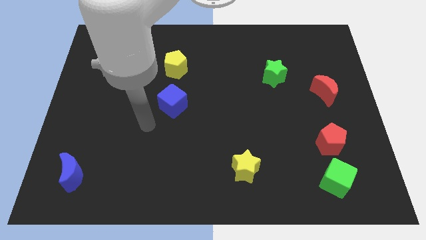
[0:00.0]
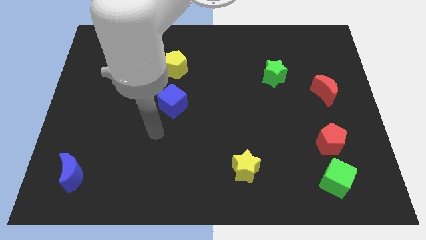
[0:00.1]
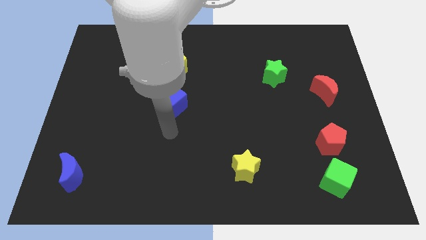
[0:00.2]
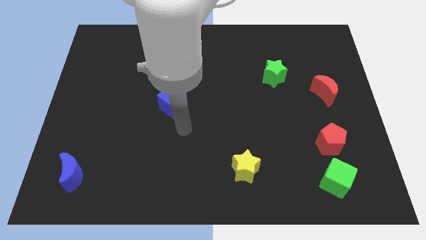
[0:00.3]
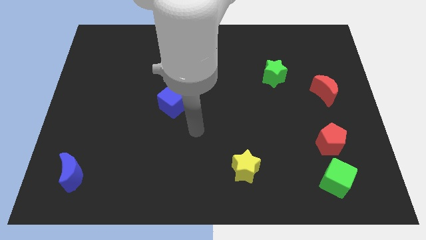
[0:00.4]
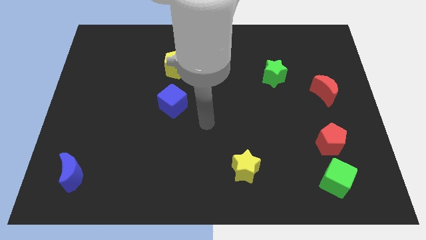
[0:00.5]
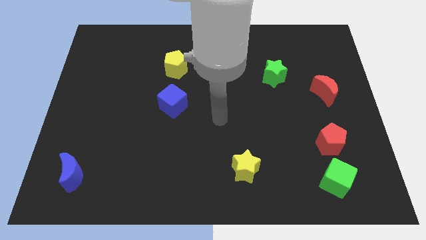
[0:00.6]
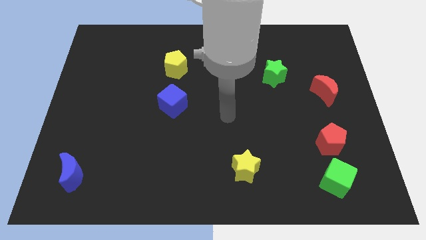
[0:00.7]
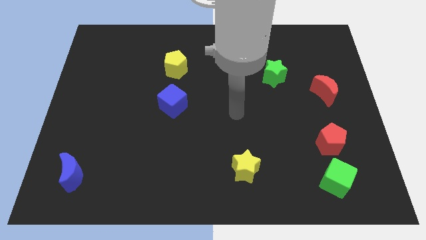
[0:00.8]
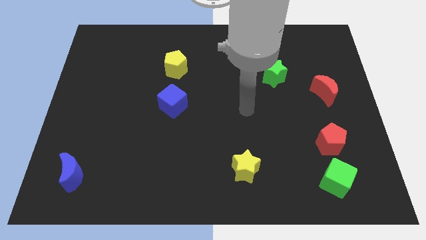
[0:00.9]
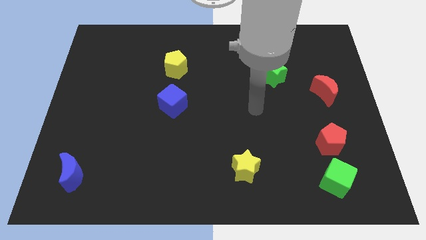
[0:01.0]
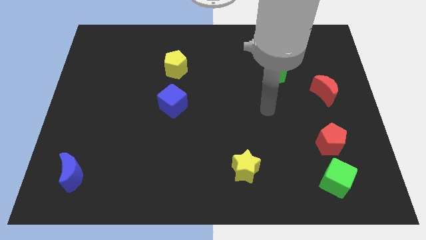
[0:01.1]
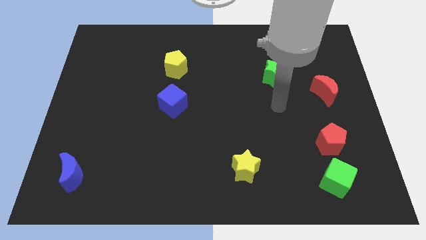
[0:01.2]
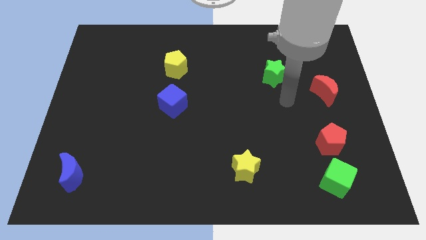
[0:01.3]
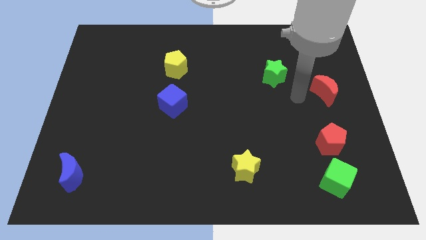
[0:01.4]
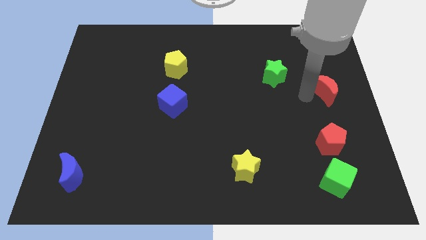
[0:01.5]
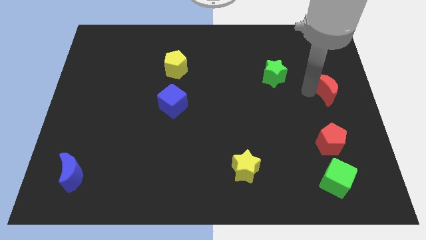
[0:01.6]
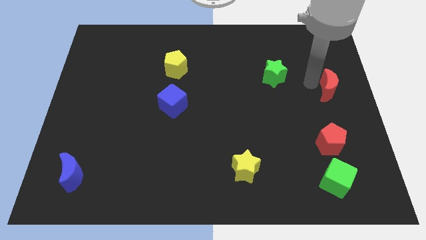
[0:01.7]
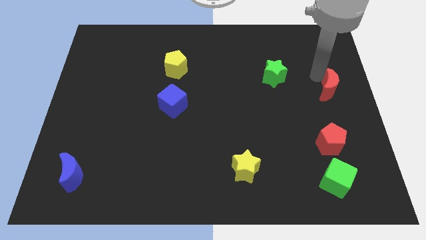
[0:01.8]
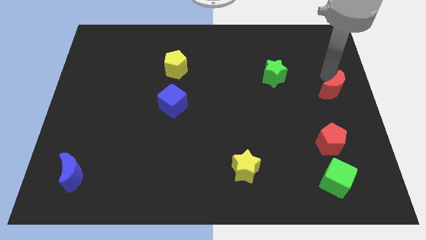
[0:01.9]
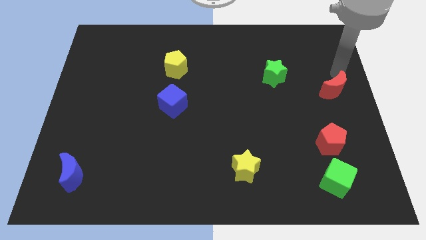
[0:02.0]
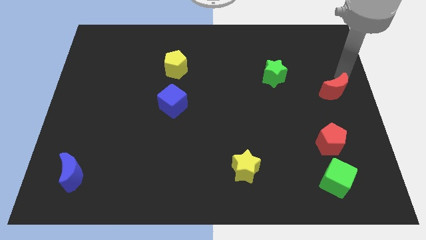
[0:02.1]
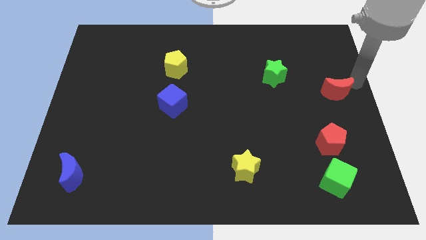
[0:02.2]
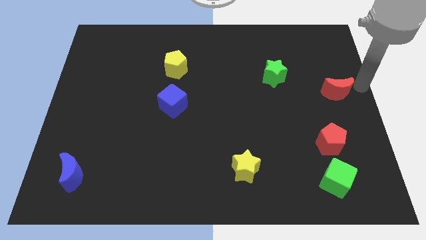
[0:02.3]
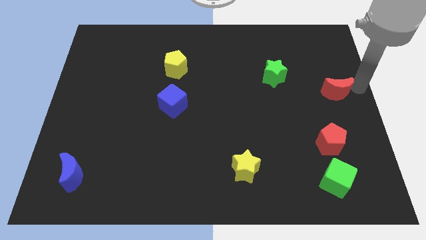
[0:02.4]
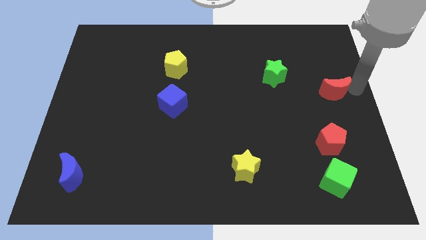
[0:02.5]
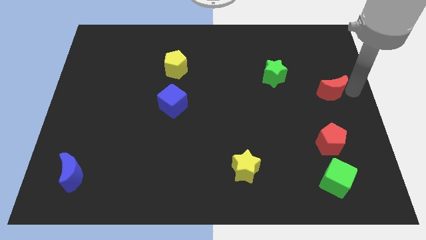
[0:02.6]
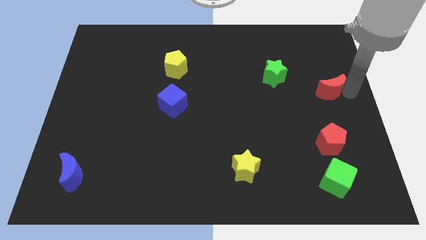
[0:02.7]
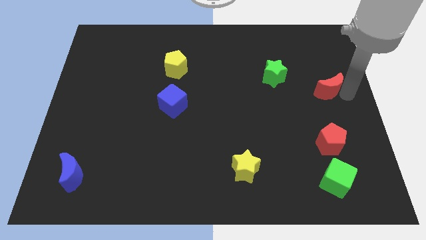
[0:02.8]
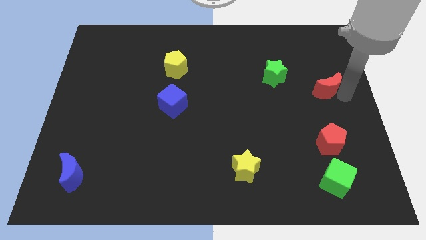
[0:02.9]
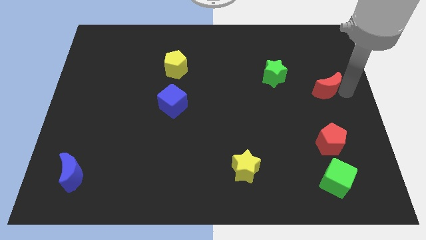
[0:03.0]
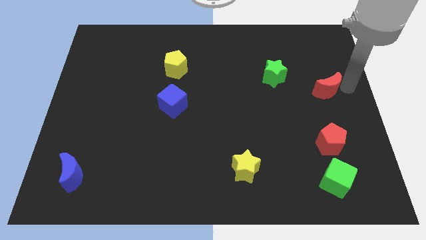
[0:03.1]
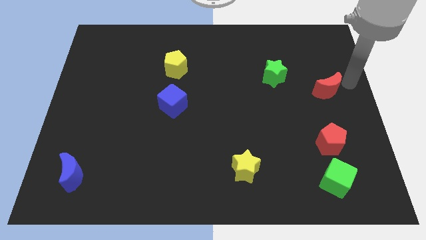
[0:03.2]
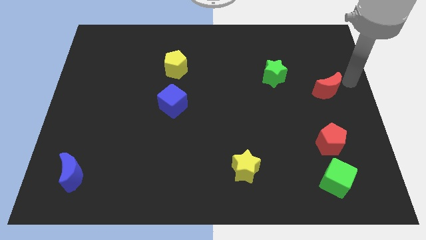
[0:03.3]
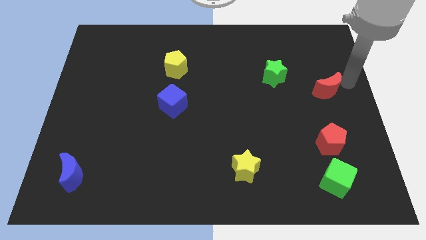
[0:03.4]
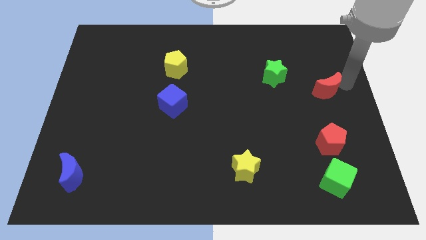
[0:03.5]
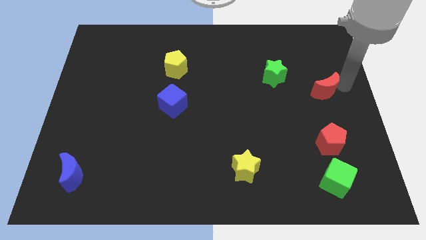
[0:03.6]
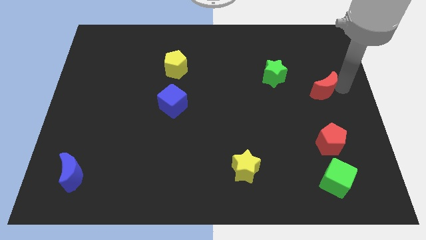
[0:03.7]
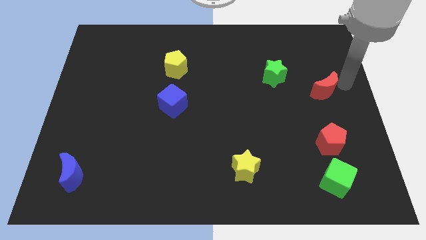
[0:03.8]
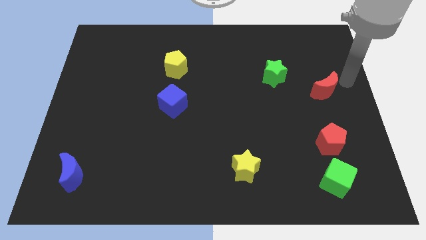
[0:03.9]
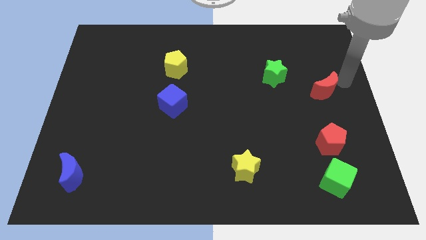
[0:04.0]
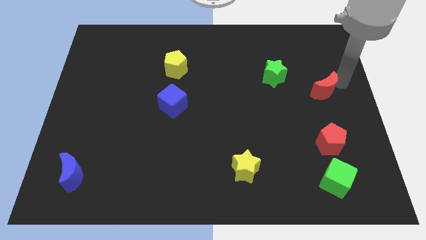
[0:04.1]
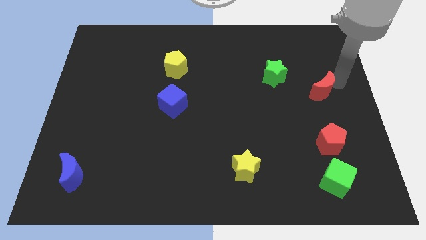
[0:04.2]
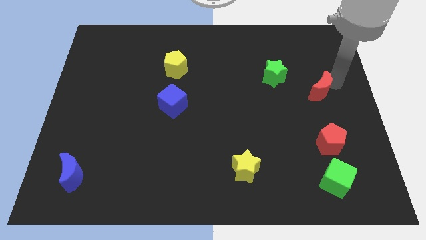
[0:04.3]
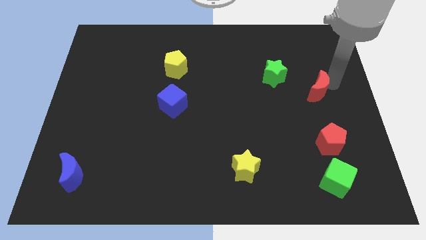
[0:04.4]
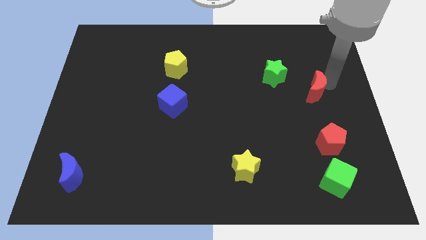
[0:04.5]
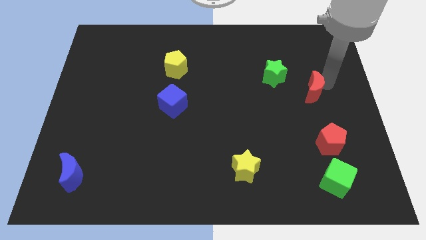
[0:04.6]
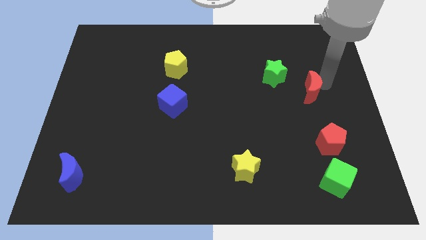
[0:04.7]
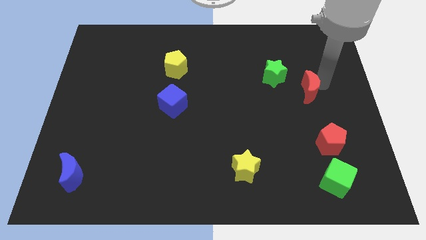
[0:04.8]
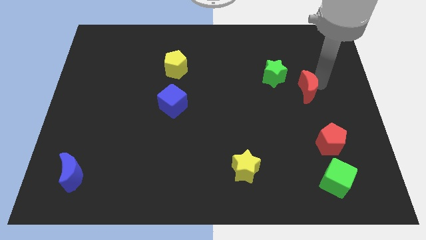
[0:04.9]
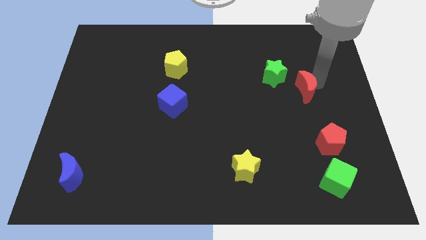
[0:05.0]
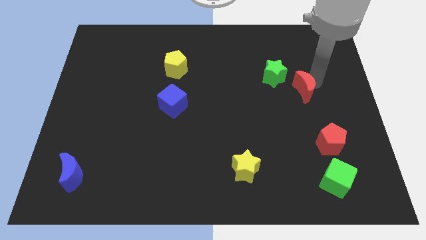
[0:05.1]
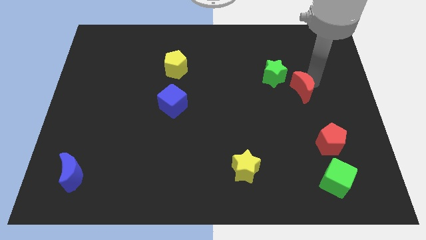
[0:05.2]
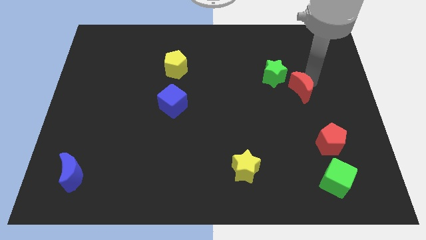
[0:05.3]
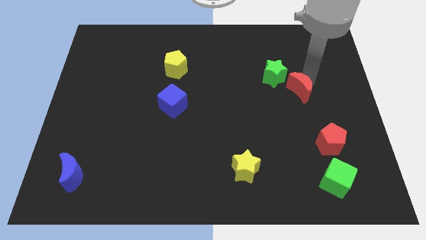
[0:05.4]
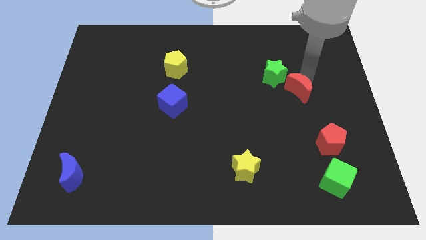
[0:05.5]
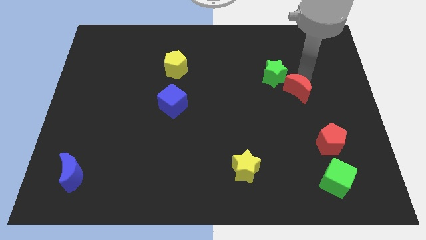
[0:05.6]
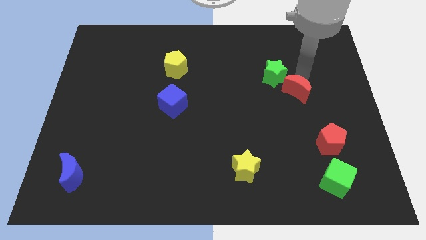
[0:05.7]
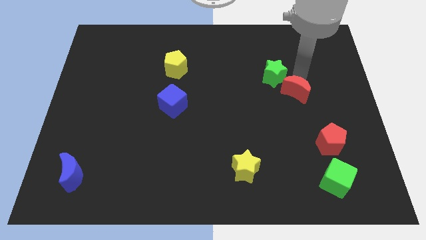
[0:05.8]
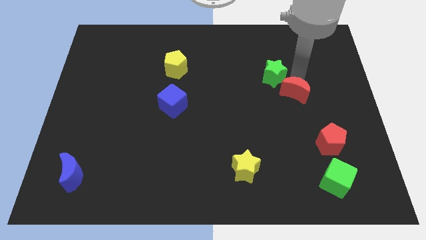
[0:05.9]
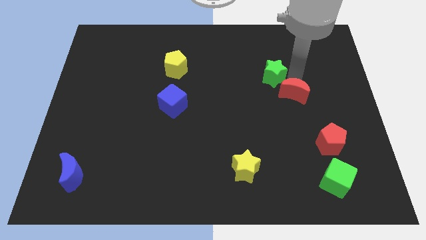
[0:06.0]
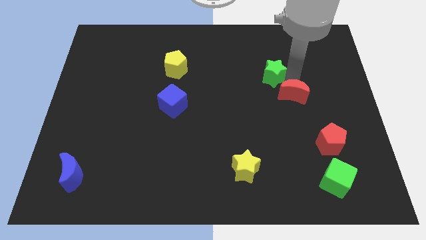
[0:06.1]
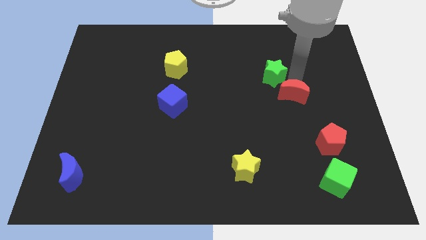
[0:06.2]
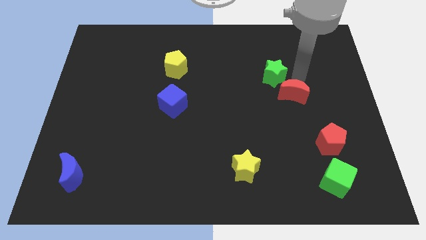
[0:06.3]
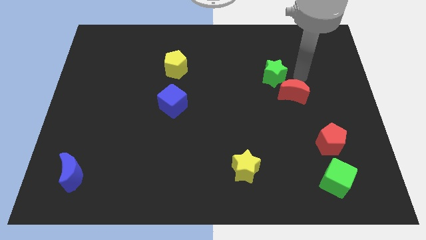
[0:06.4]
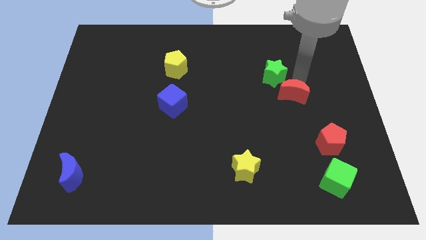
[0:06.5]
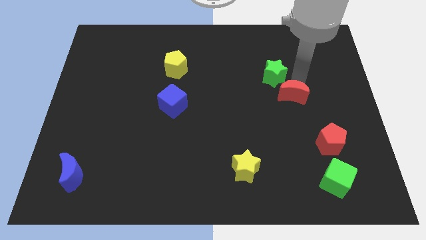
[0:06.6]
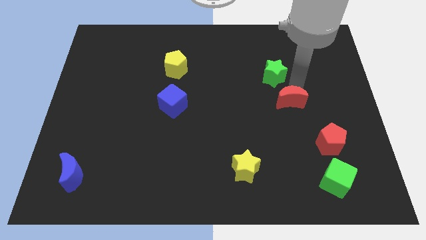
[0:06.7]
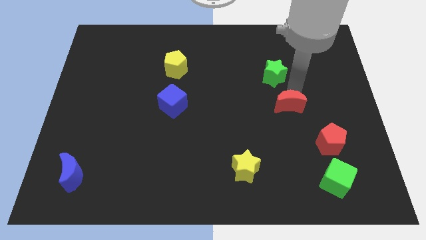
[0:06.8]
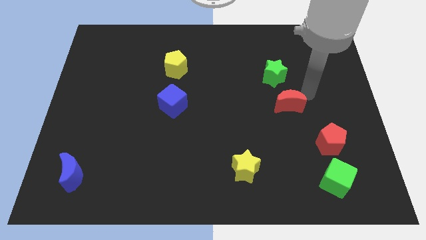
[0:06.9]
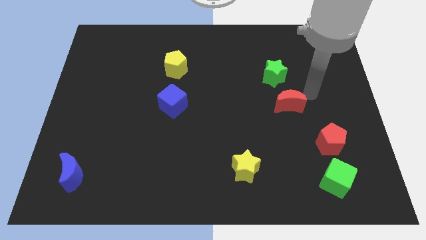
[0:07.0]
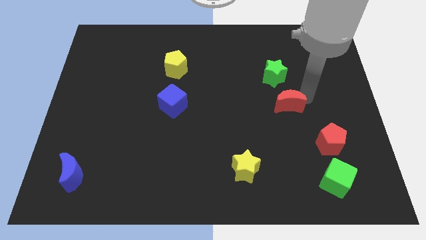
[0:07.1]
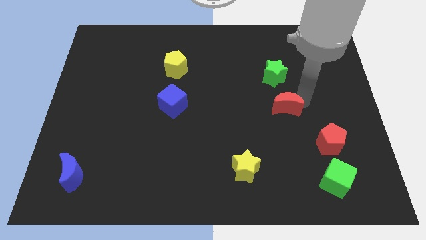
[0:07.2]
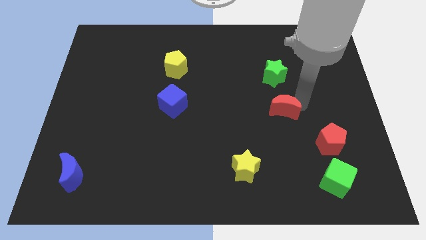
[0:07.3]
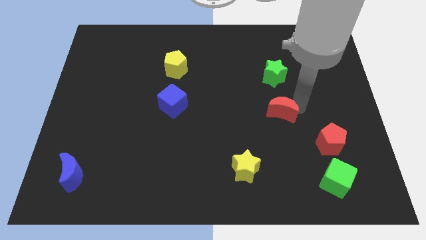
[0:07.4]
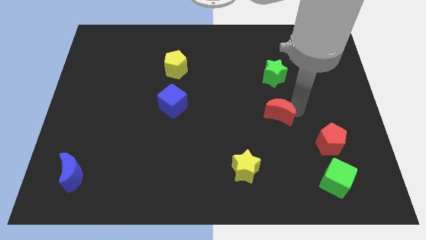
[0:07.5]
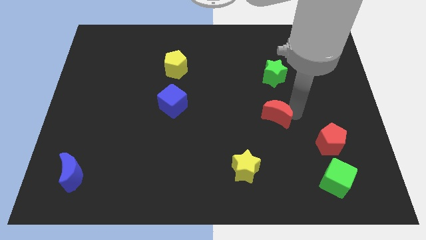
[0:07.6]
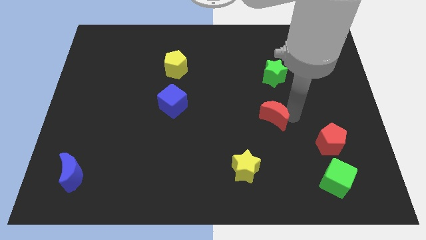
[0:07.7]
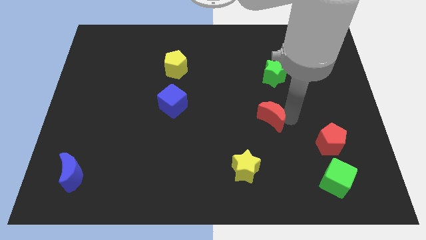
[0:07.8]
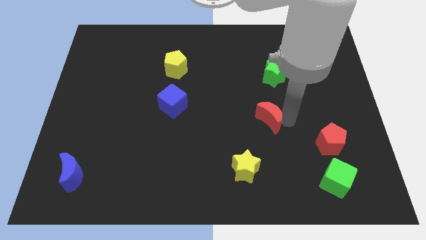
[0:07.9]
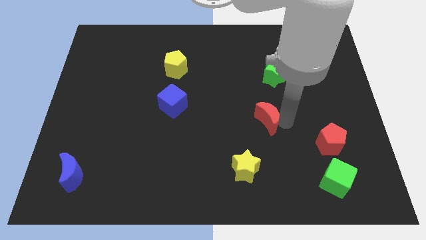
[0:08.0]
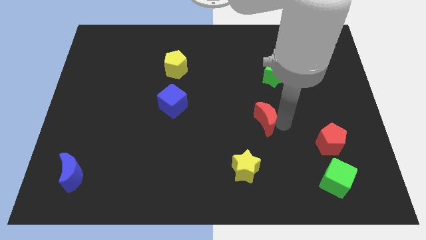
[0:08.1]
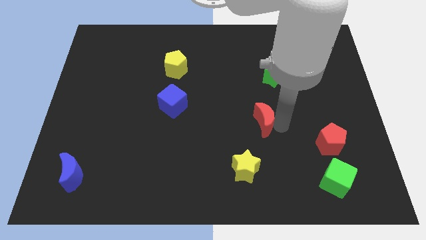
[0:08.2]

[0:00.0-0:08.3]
push the red moon above the yellow star
